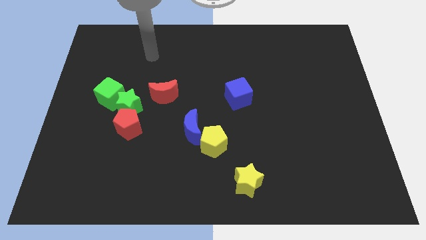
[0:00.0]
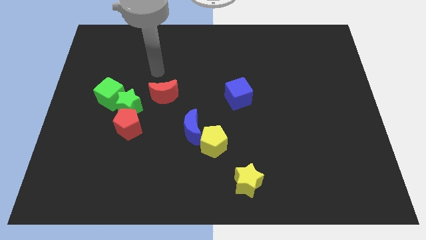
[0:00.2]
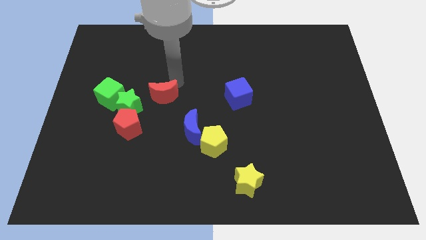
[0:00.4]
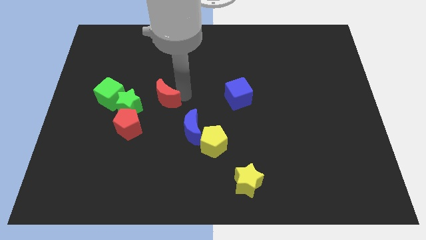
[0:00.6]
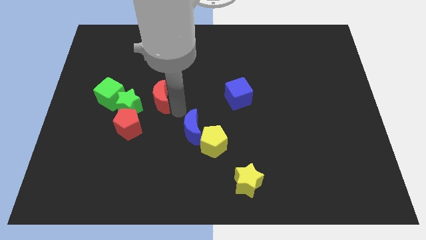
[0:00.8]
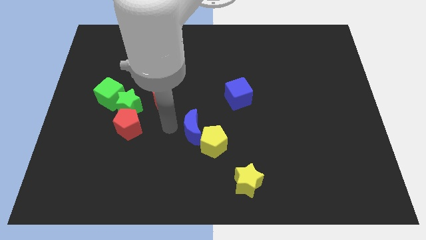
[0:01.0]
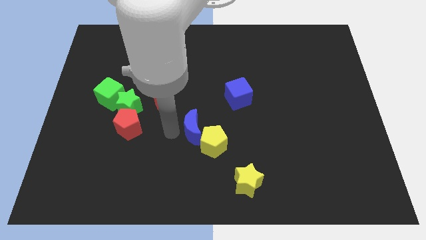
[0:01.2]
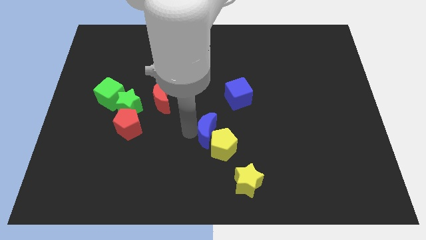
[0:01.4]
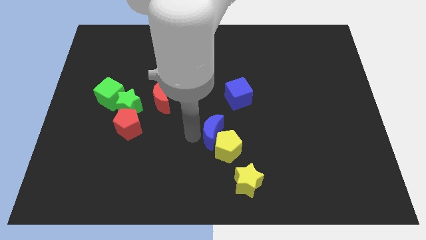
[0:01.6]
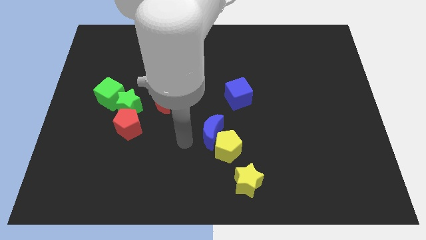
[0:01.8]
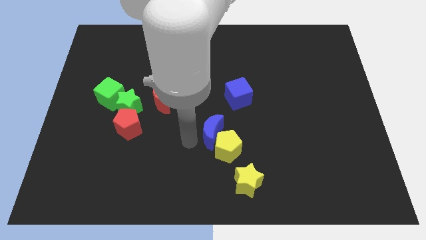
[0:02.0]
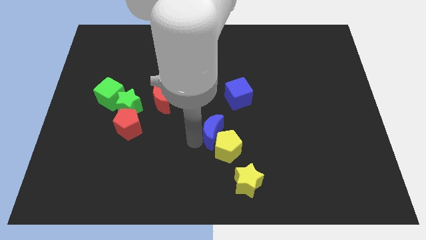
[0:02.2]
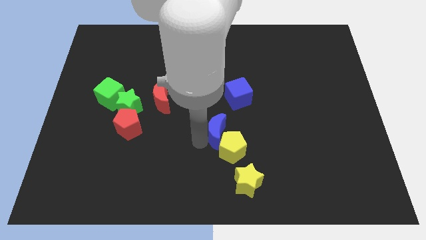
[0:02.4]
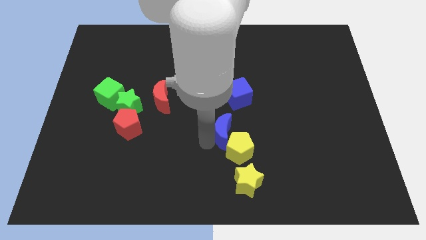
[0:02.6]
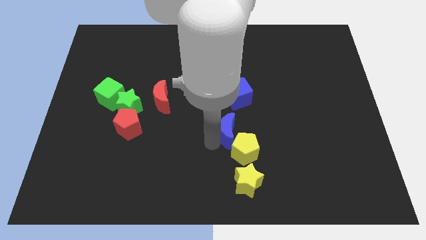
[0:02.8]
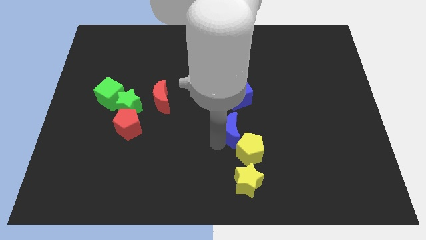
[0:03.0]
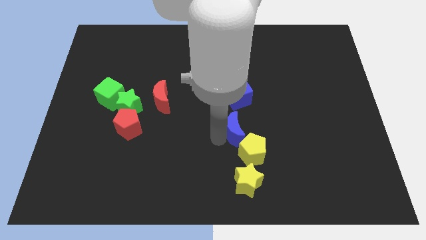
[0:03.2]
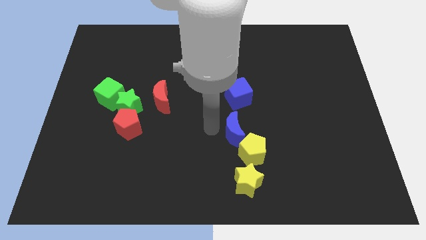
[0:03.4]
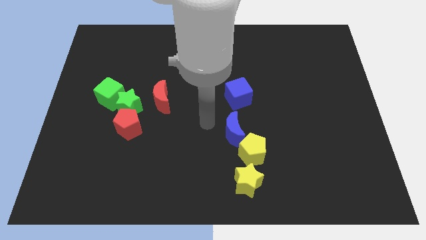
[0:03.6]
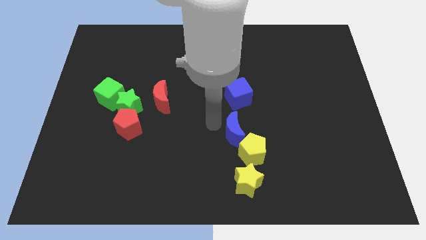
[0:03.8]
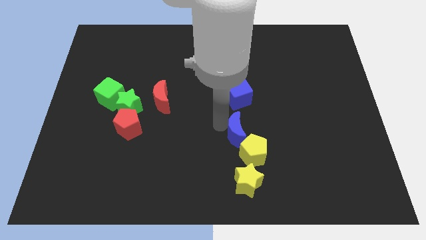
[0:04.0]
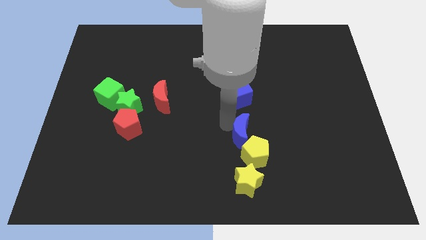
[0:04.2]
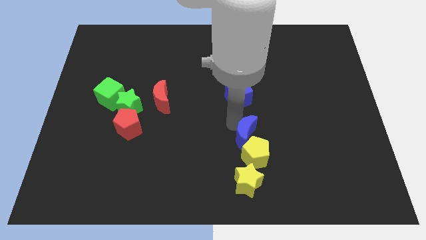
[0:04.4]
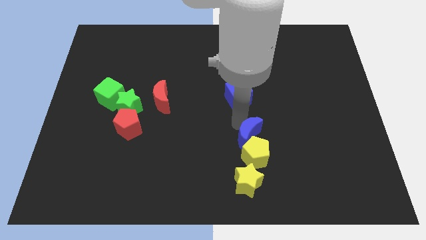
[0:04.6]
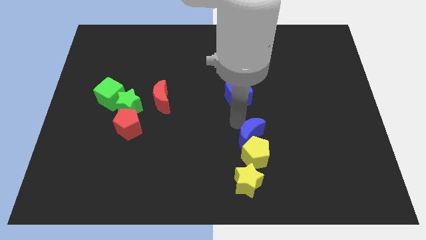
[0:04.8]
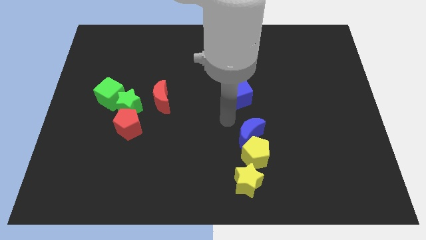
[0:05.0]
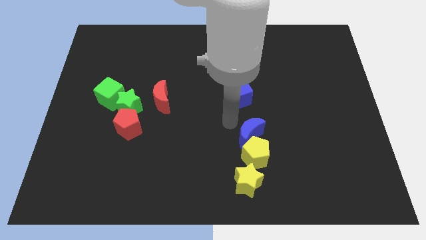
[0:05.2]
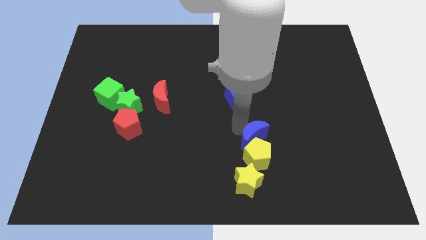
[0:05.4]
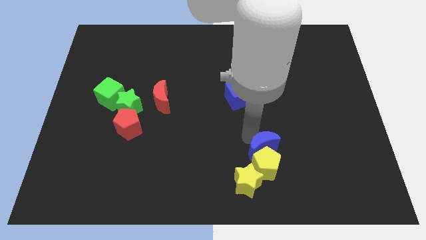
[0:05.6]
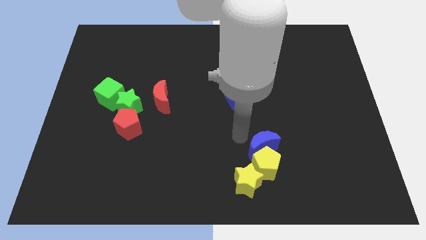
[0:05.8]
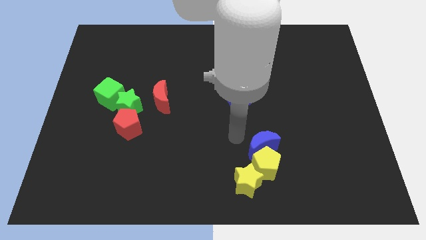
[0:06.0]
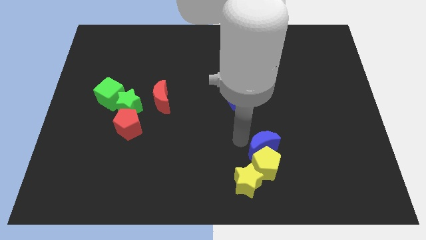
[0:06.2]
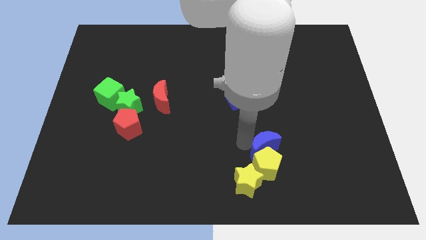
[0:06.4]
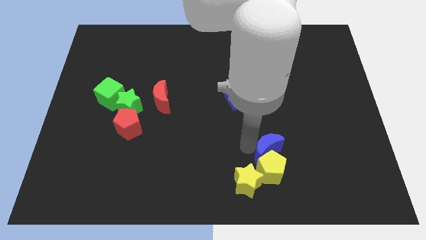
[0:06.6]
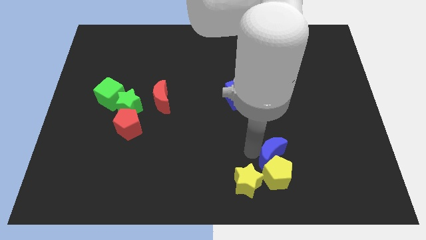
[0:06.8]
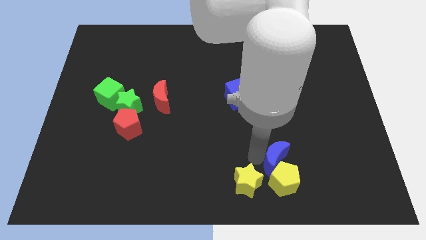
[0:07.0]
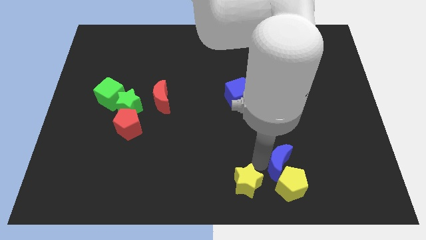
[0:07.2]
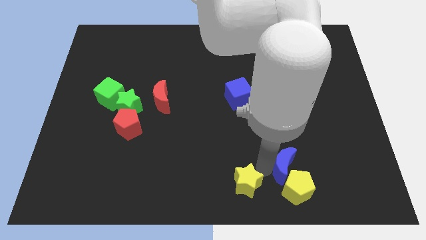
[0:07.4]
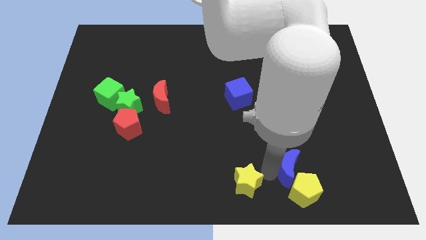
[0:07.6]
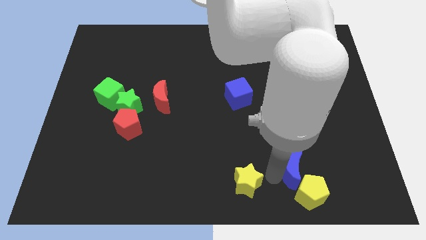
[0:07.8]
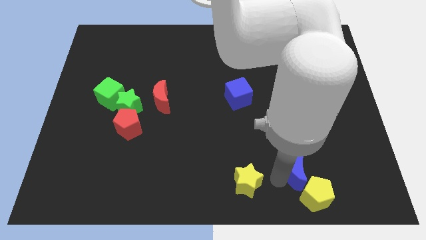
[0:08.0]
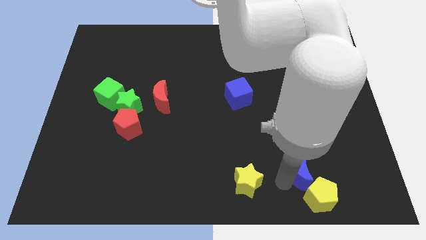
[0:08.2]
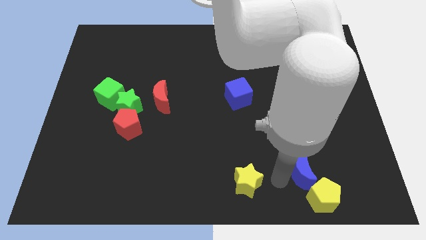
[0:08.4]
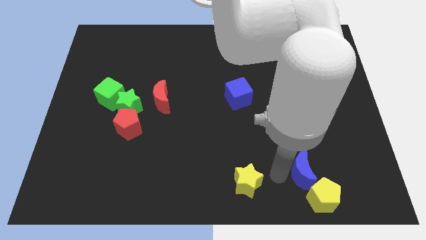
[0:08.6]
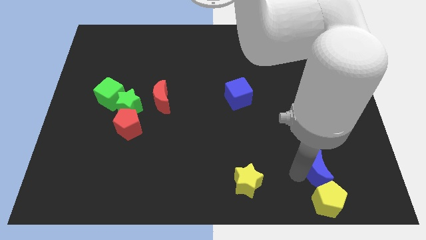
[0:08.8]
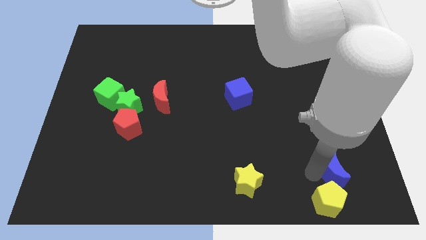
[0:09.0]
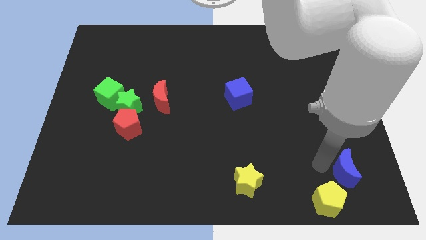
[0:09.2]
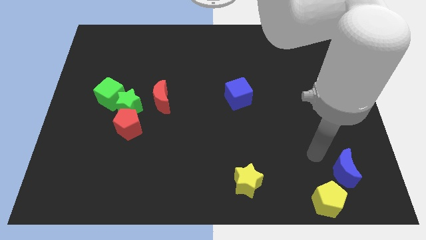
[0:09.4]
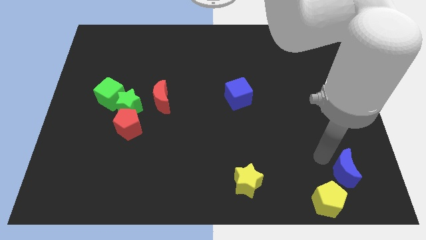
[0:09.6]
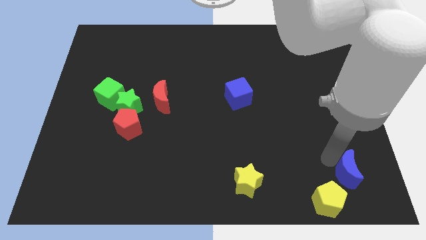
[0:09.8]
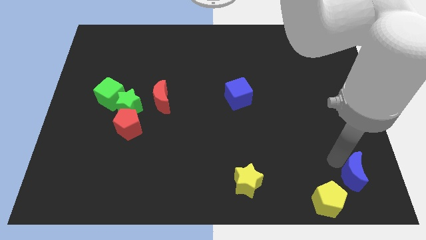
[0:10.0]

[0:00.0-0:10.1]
push the blue moon to the lower right corner
